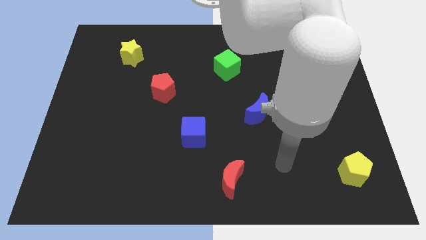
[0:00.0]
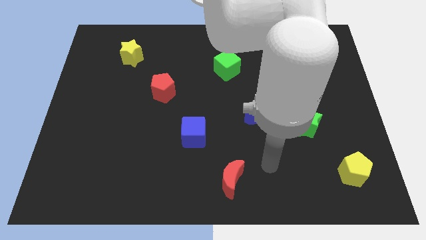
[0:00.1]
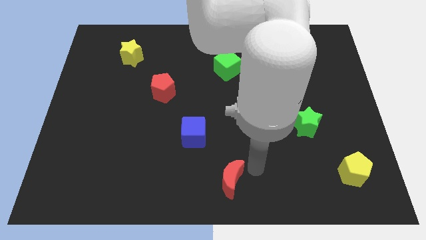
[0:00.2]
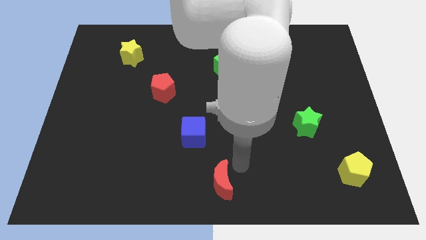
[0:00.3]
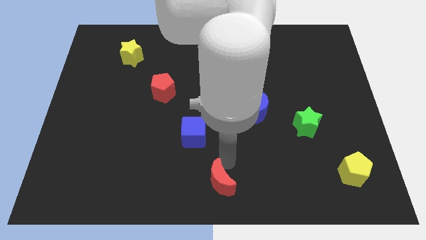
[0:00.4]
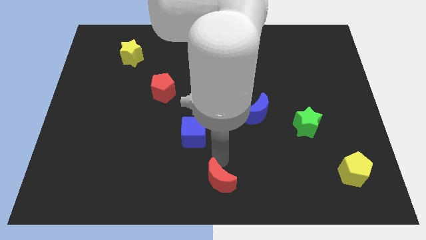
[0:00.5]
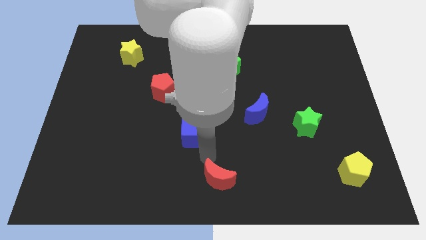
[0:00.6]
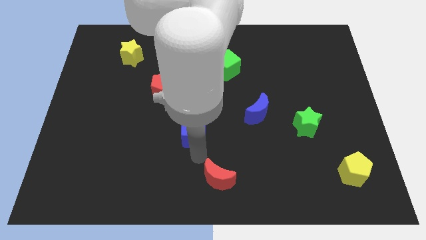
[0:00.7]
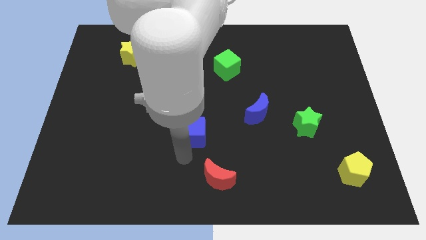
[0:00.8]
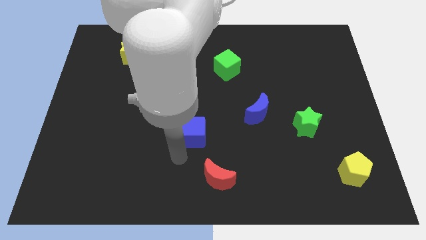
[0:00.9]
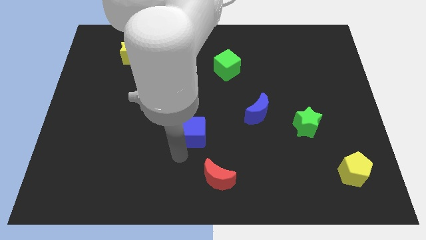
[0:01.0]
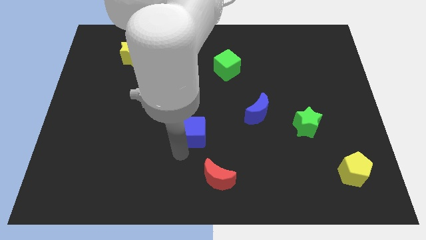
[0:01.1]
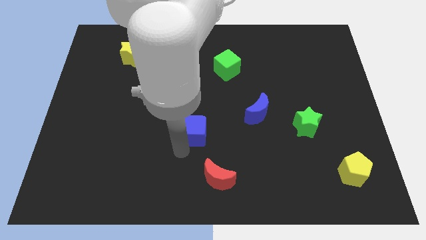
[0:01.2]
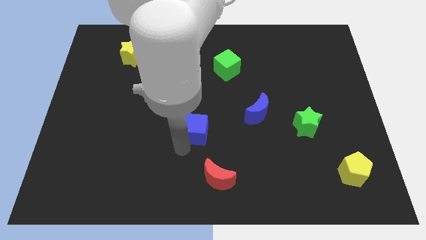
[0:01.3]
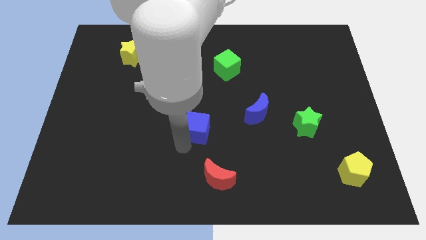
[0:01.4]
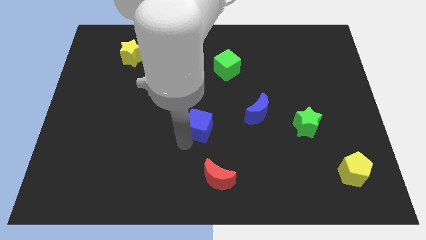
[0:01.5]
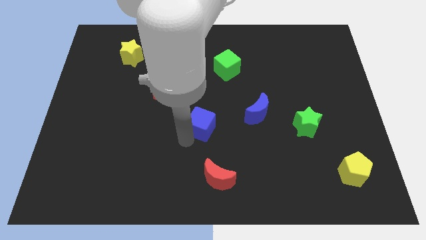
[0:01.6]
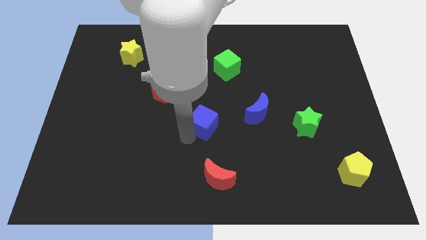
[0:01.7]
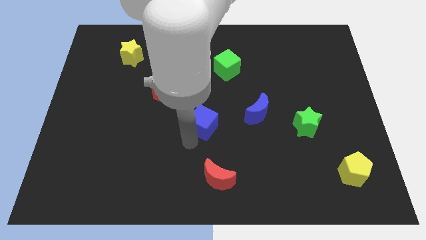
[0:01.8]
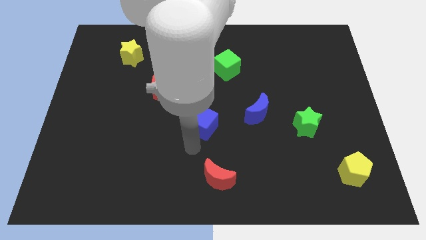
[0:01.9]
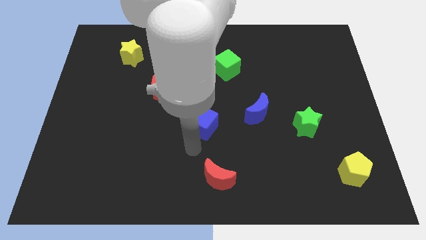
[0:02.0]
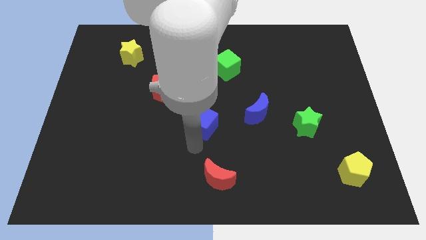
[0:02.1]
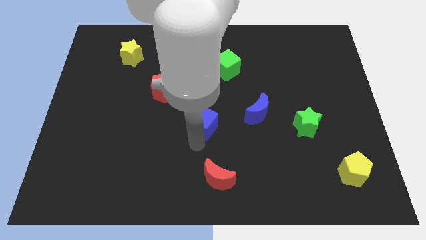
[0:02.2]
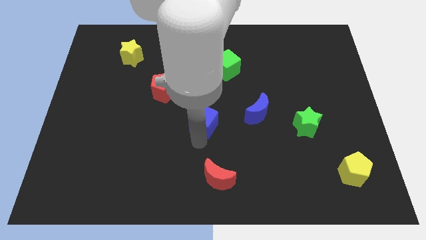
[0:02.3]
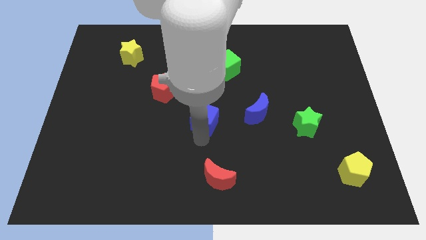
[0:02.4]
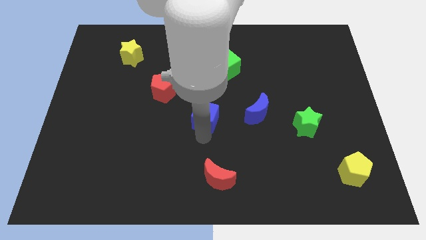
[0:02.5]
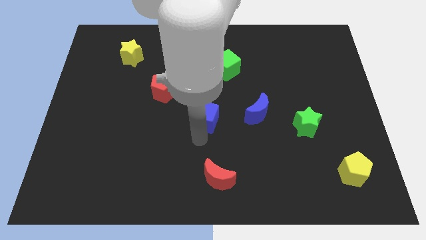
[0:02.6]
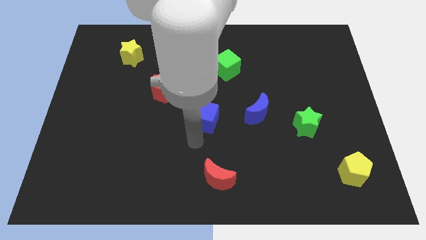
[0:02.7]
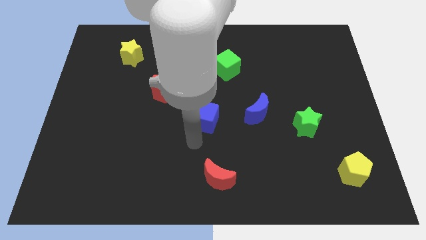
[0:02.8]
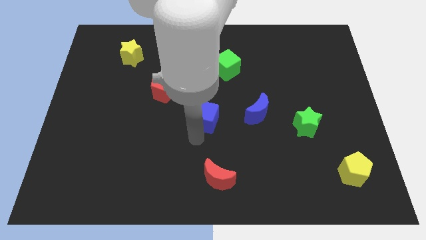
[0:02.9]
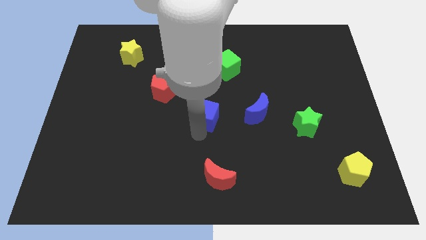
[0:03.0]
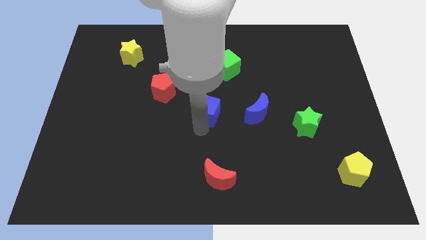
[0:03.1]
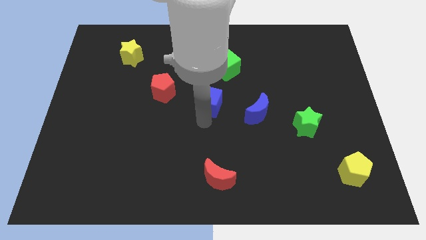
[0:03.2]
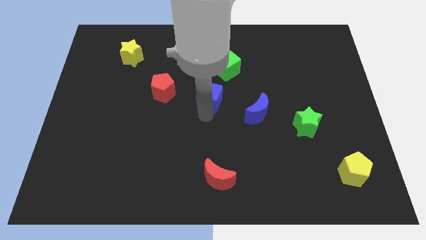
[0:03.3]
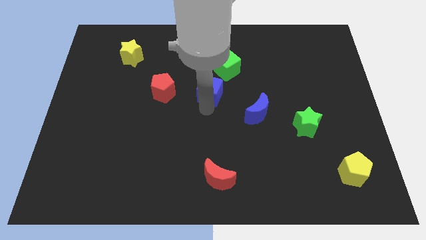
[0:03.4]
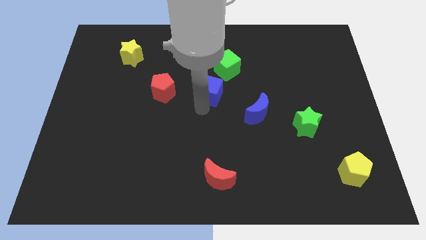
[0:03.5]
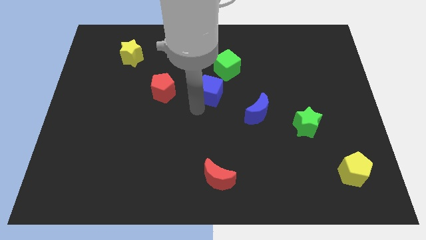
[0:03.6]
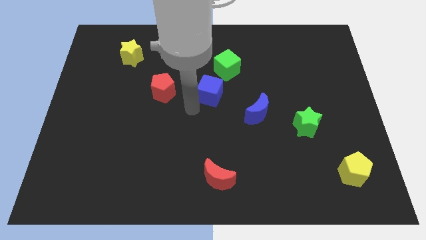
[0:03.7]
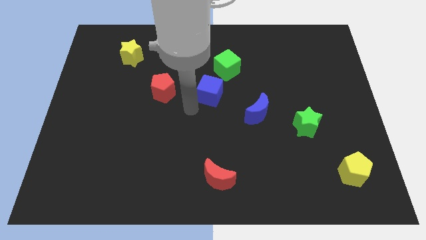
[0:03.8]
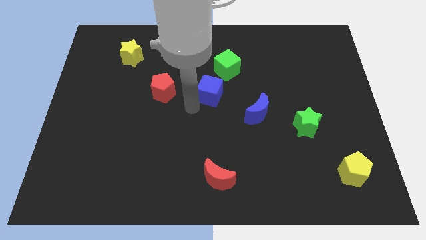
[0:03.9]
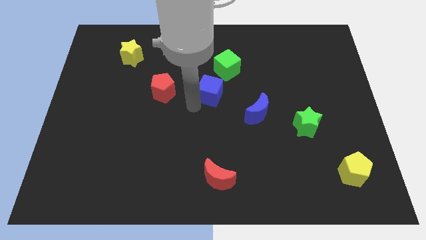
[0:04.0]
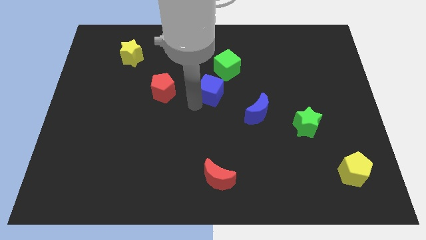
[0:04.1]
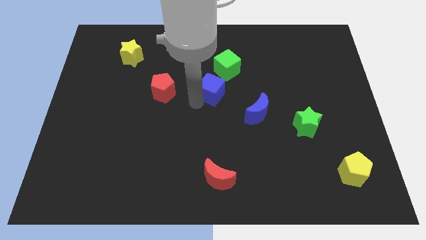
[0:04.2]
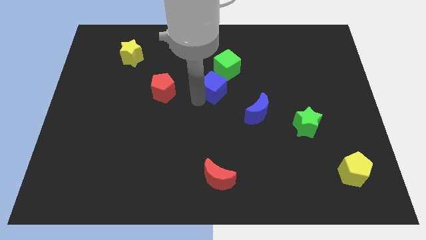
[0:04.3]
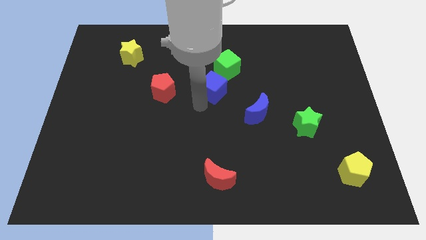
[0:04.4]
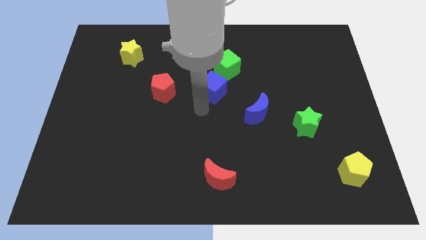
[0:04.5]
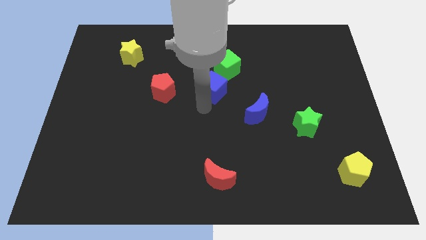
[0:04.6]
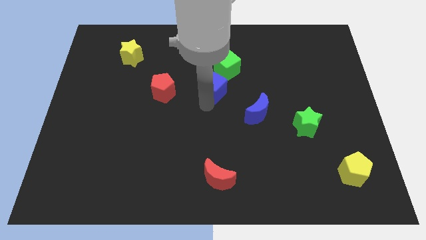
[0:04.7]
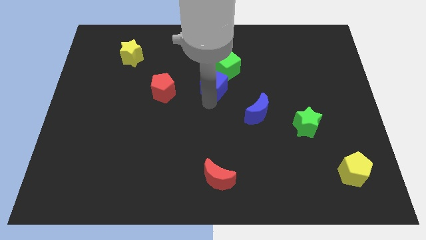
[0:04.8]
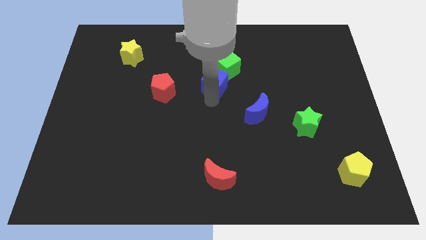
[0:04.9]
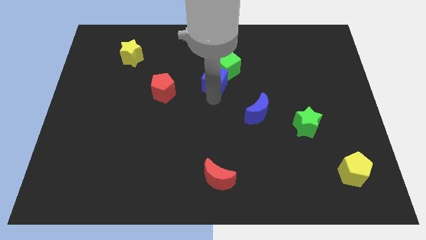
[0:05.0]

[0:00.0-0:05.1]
move the blue cube to the green cube

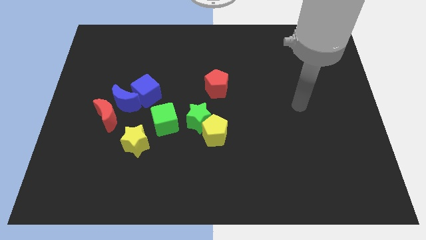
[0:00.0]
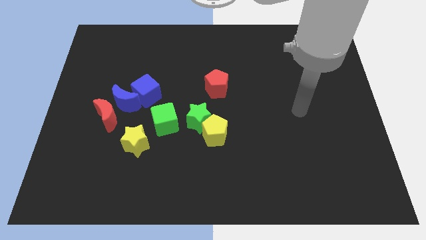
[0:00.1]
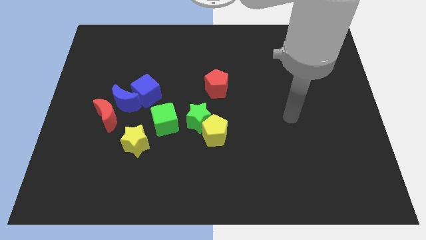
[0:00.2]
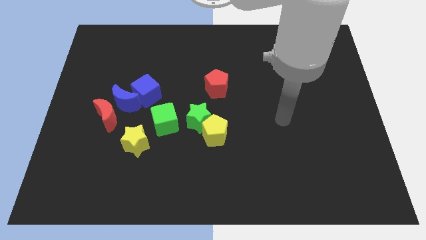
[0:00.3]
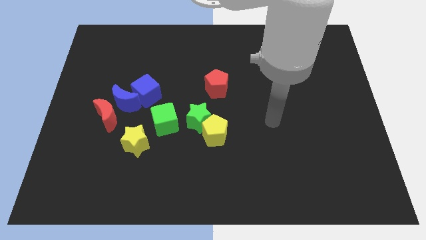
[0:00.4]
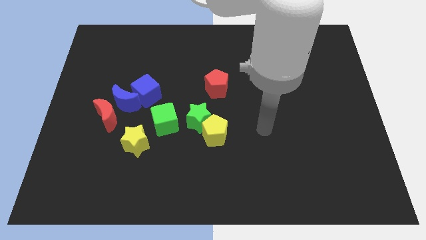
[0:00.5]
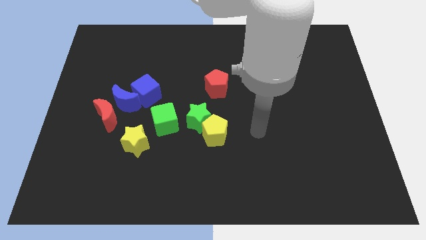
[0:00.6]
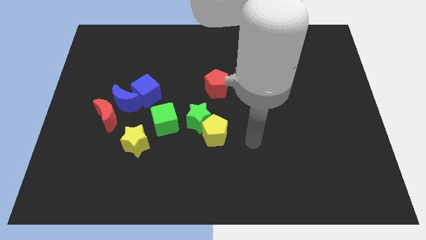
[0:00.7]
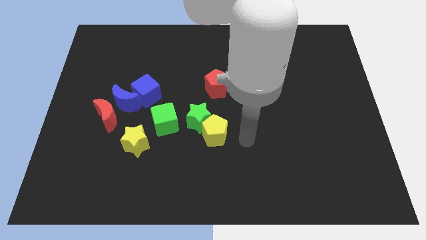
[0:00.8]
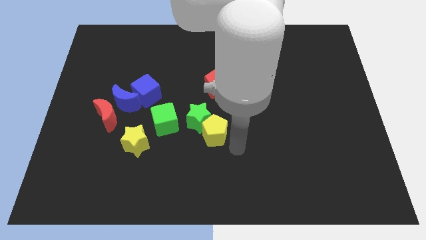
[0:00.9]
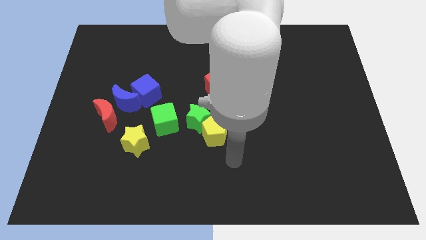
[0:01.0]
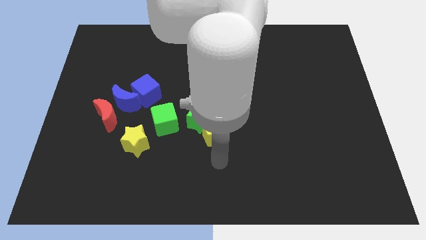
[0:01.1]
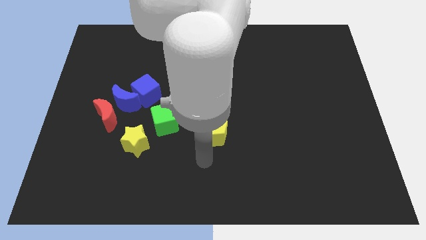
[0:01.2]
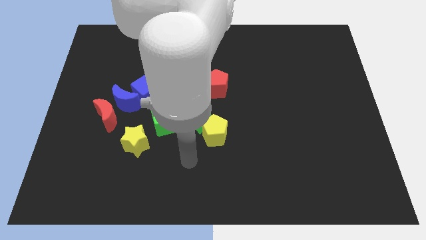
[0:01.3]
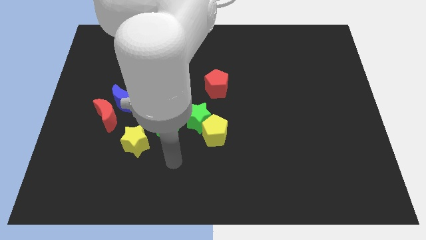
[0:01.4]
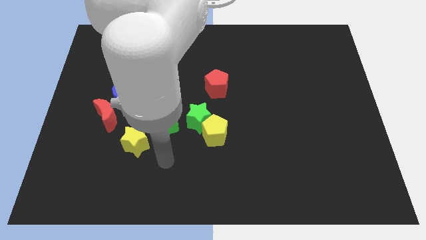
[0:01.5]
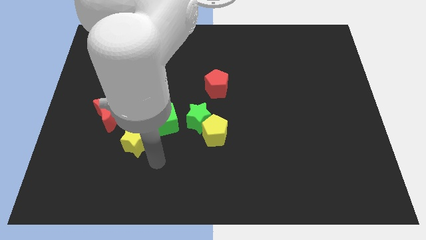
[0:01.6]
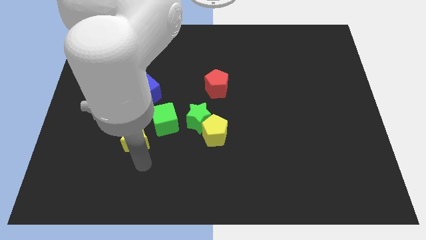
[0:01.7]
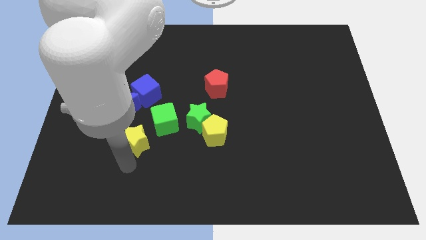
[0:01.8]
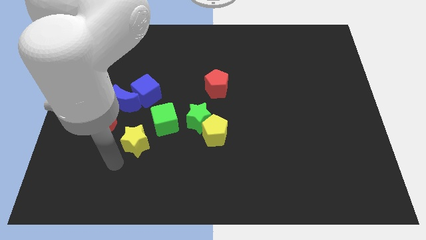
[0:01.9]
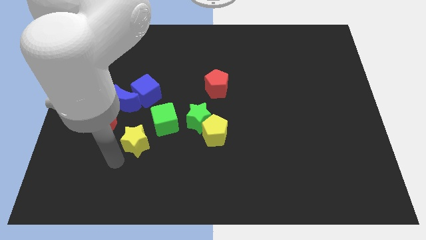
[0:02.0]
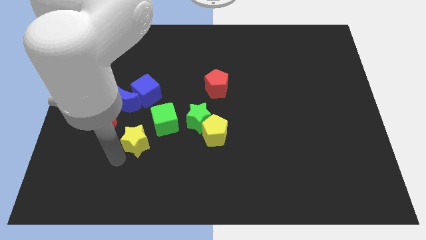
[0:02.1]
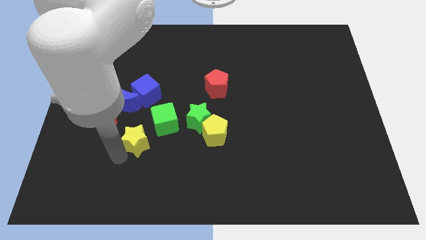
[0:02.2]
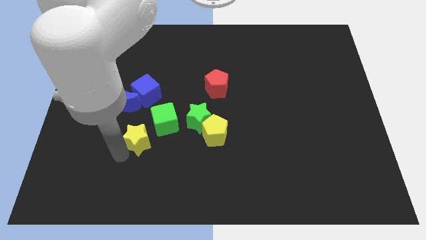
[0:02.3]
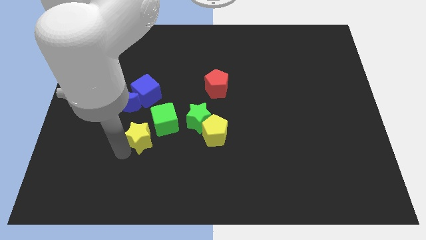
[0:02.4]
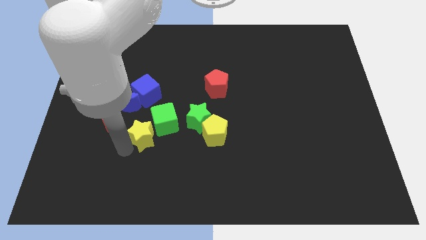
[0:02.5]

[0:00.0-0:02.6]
slide the yellow star close to the green cube
